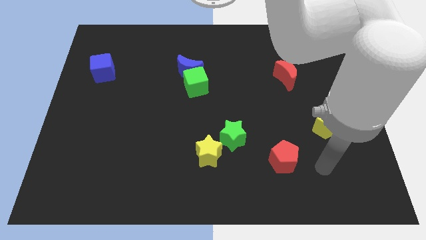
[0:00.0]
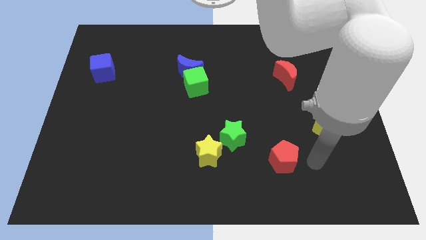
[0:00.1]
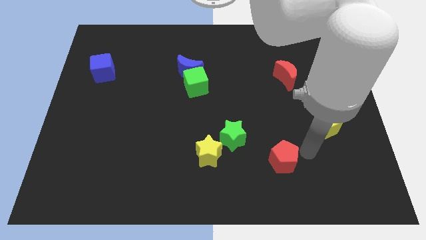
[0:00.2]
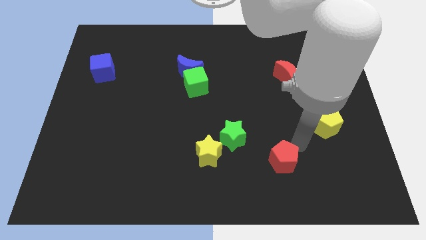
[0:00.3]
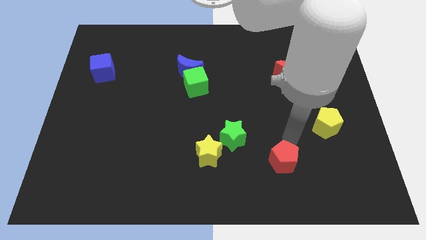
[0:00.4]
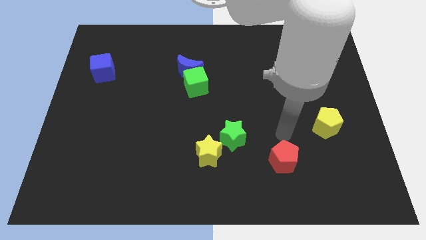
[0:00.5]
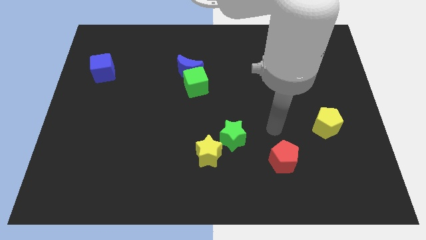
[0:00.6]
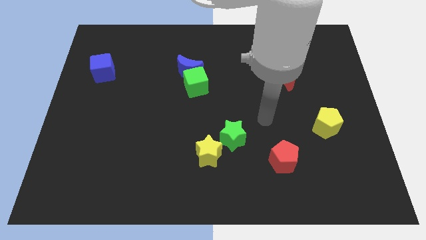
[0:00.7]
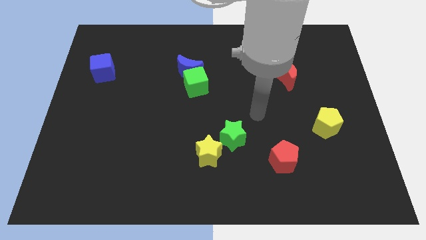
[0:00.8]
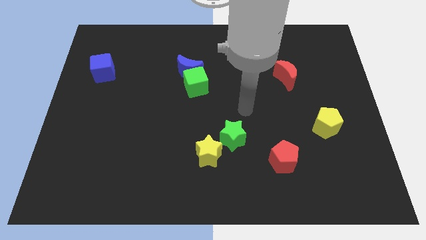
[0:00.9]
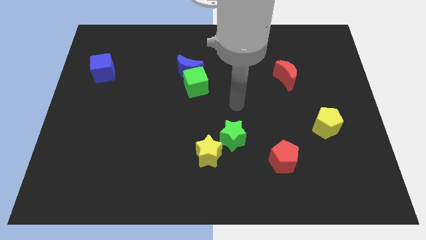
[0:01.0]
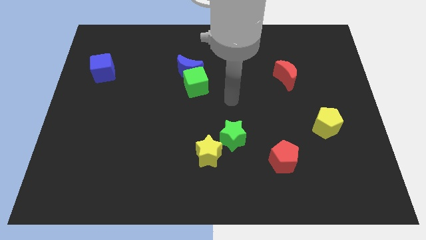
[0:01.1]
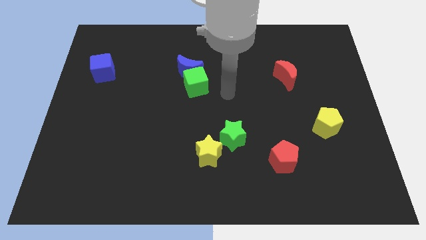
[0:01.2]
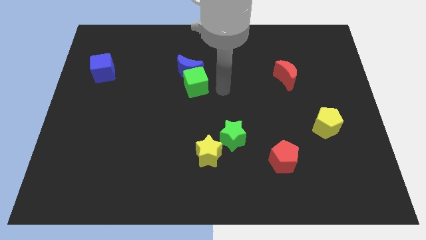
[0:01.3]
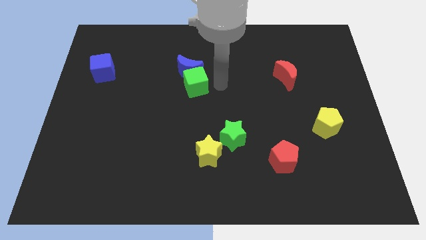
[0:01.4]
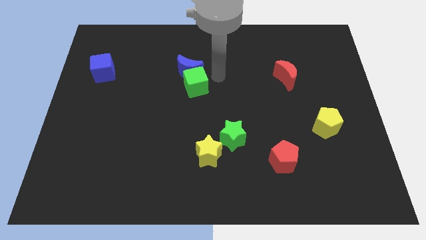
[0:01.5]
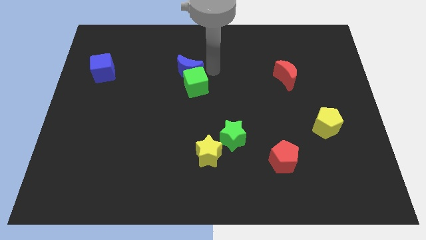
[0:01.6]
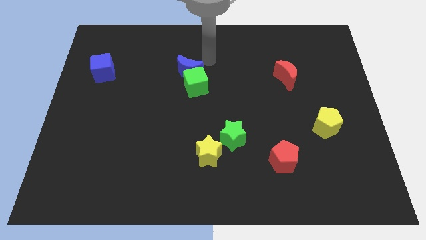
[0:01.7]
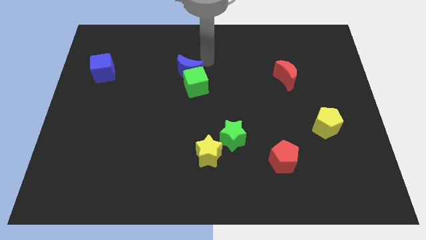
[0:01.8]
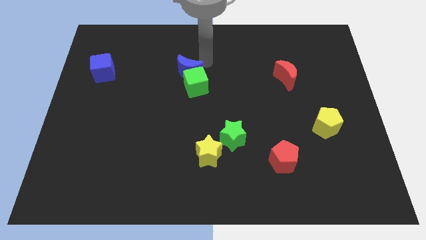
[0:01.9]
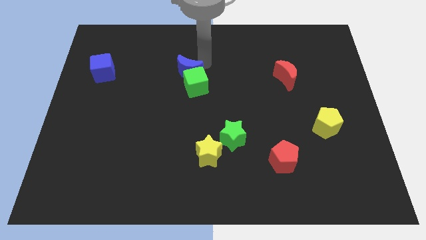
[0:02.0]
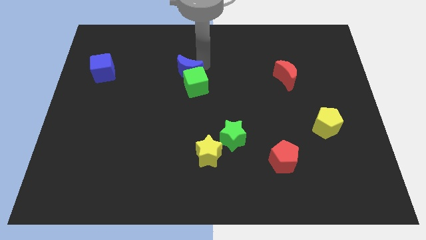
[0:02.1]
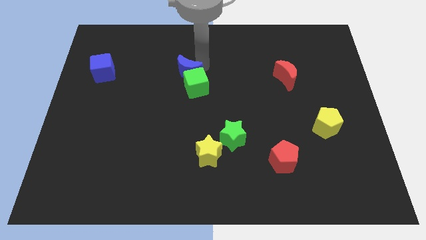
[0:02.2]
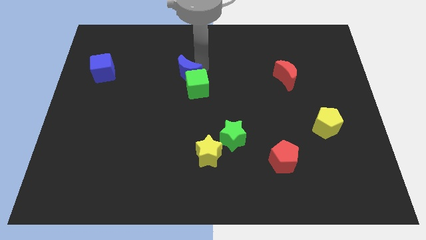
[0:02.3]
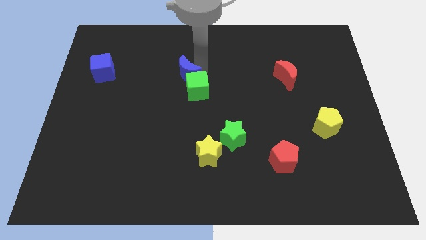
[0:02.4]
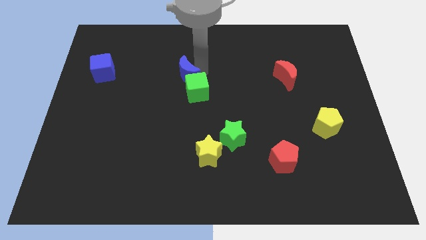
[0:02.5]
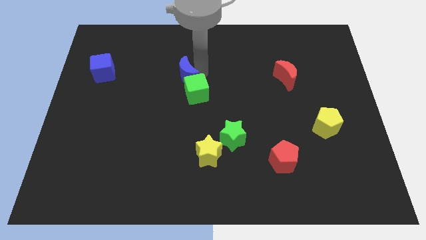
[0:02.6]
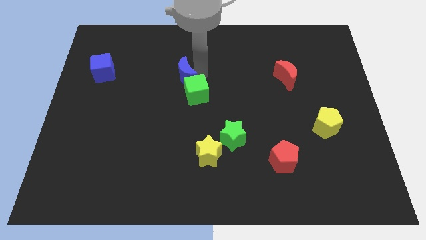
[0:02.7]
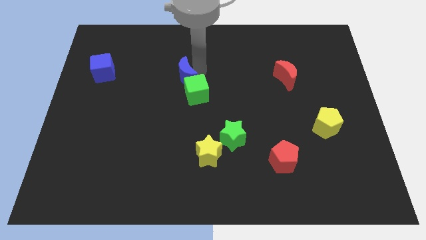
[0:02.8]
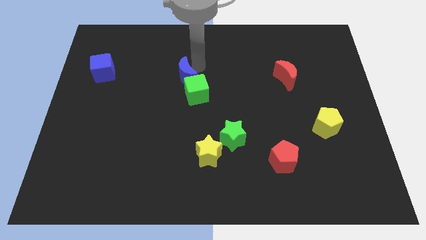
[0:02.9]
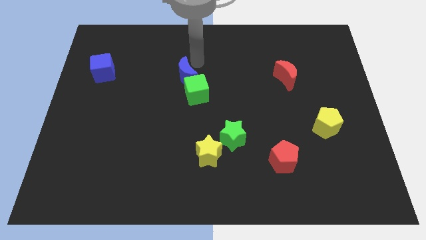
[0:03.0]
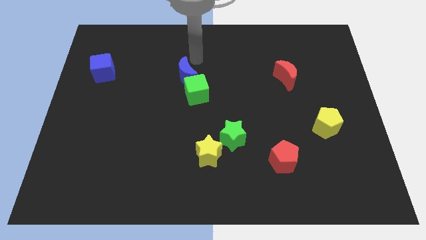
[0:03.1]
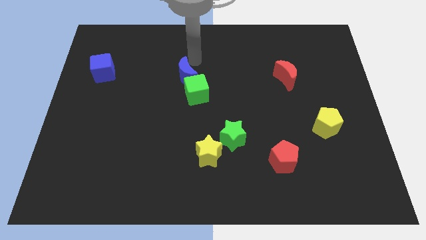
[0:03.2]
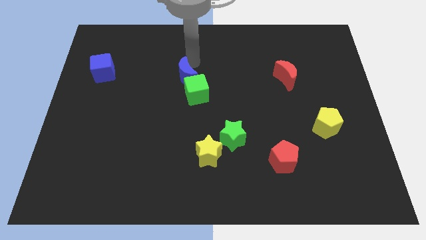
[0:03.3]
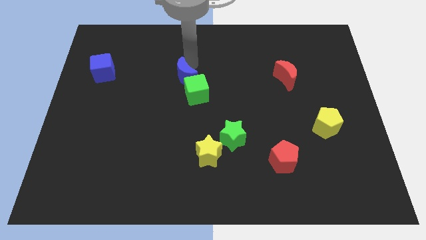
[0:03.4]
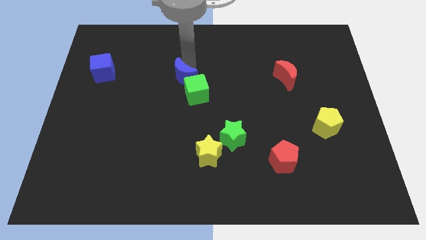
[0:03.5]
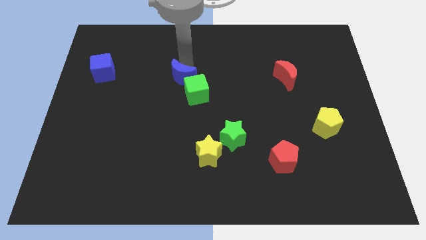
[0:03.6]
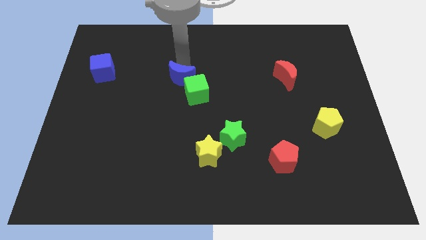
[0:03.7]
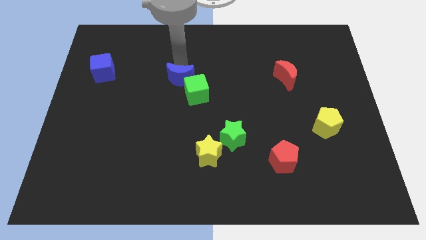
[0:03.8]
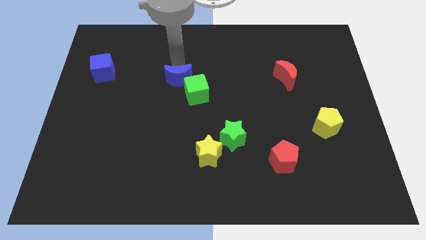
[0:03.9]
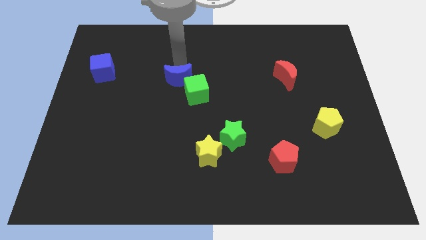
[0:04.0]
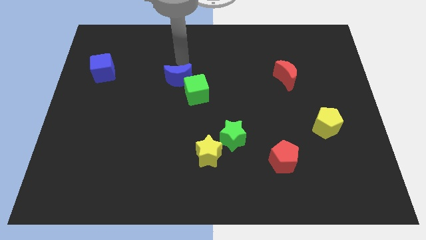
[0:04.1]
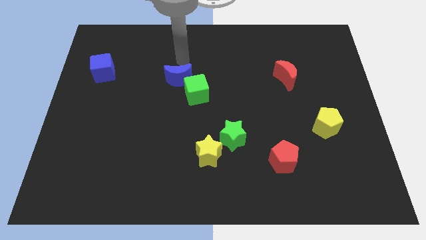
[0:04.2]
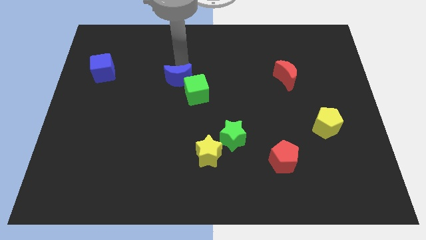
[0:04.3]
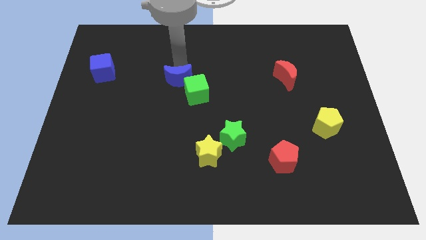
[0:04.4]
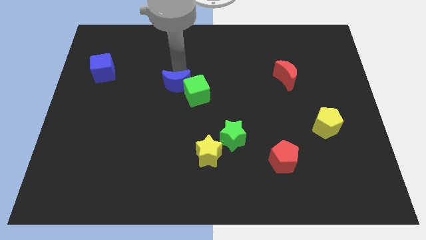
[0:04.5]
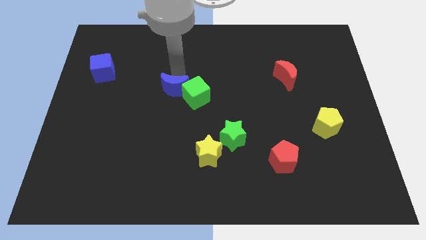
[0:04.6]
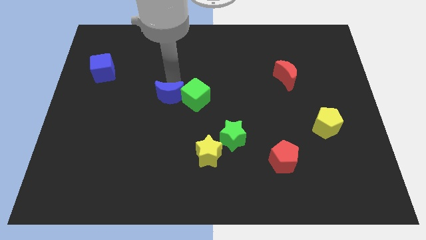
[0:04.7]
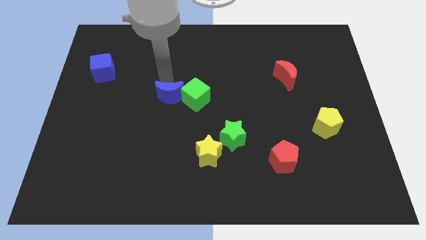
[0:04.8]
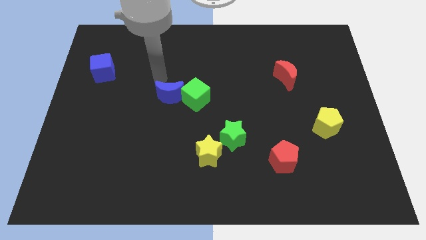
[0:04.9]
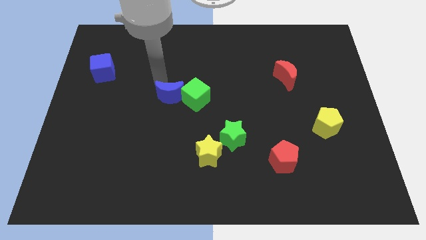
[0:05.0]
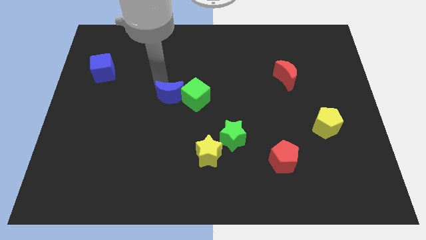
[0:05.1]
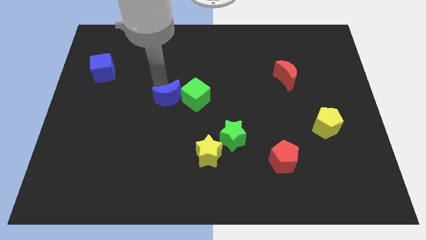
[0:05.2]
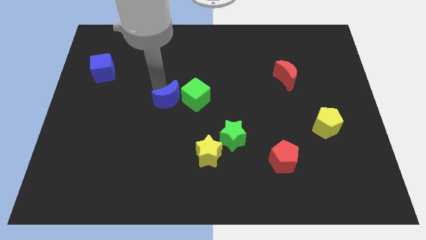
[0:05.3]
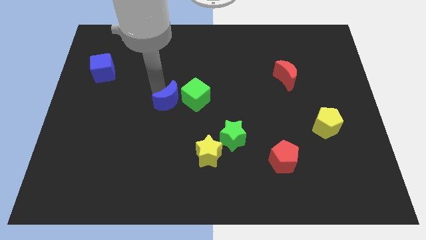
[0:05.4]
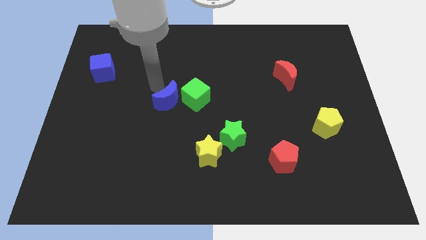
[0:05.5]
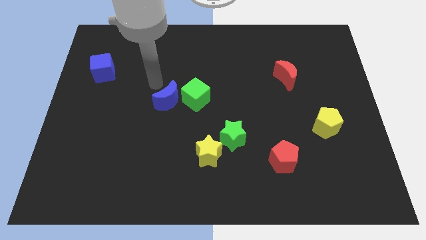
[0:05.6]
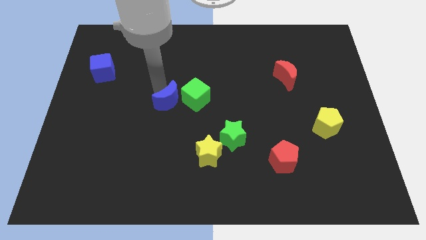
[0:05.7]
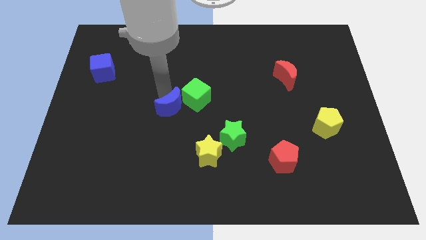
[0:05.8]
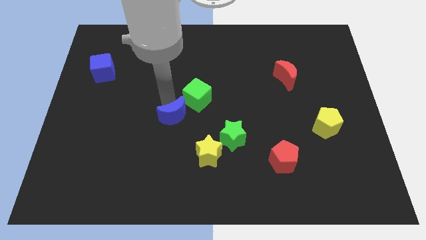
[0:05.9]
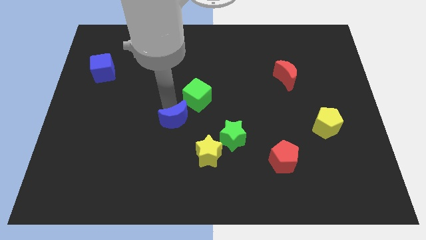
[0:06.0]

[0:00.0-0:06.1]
move the blue moon to the bottom of the green cube
